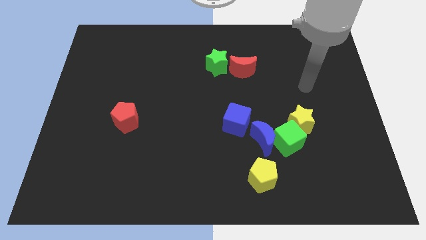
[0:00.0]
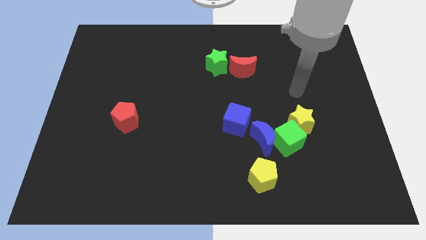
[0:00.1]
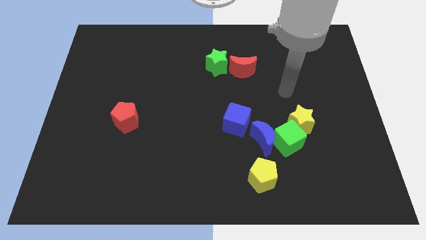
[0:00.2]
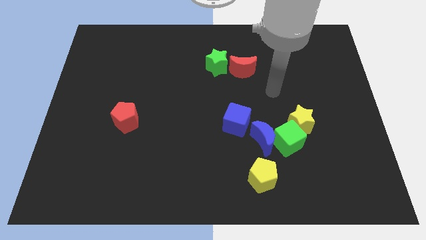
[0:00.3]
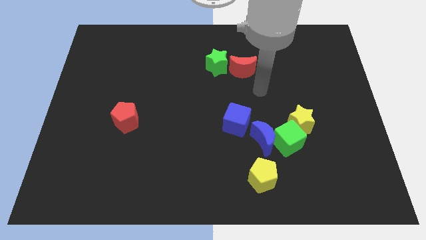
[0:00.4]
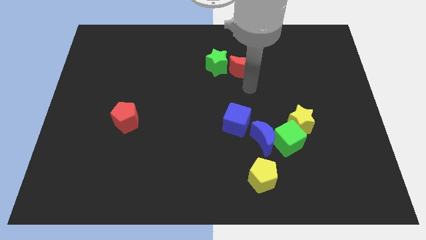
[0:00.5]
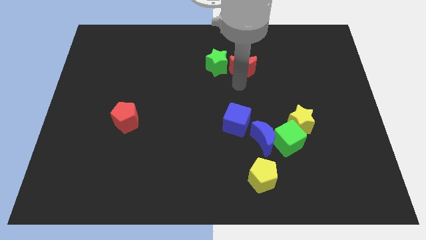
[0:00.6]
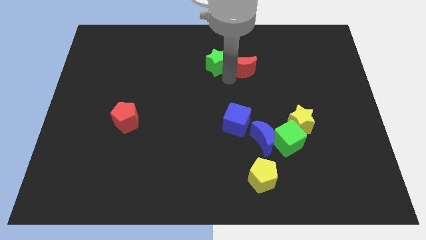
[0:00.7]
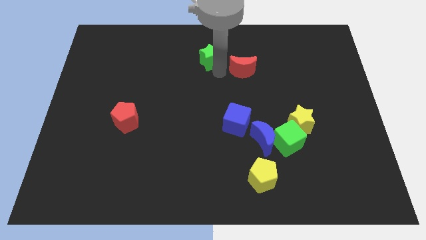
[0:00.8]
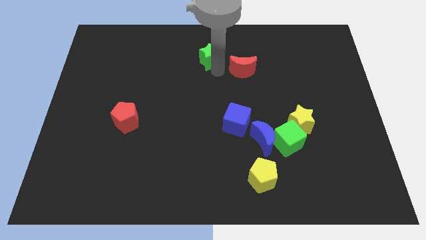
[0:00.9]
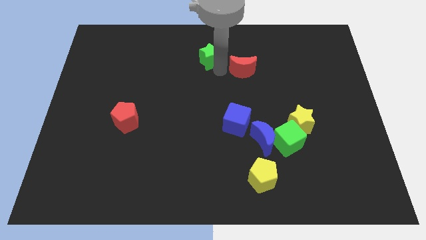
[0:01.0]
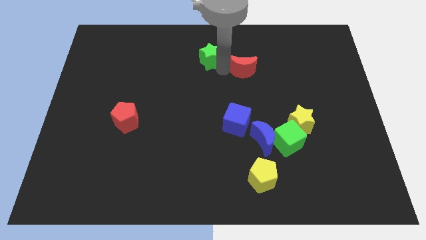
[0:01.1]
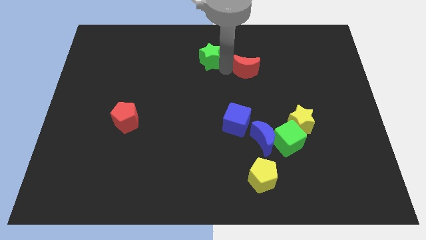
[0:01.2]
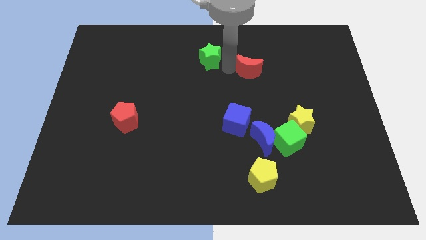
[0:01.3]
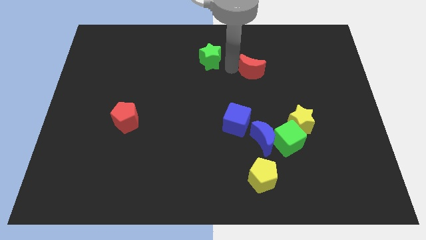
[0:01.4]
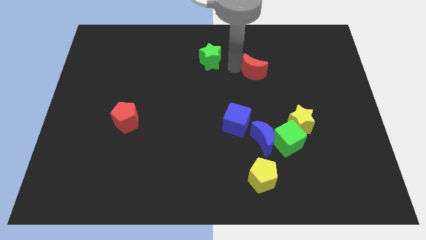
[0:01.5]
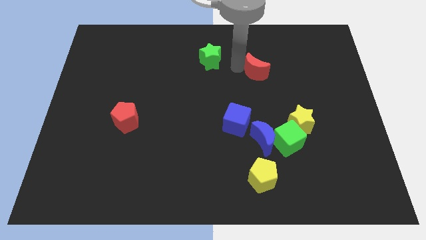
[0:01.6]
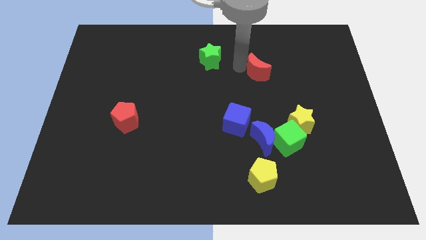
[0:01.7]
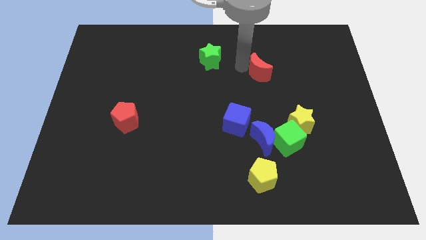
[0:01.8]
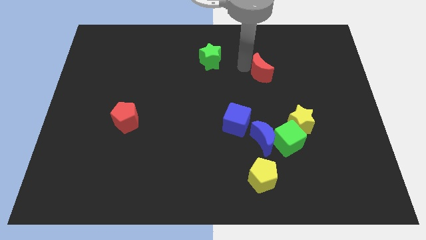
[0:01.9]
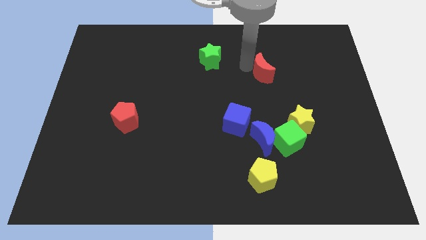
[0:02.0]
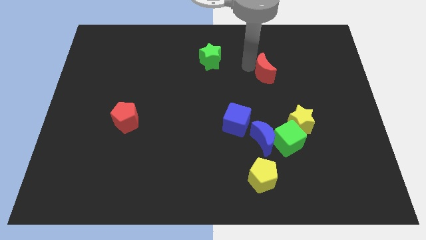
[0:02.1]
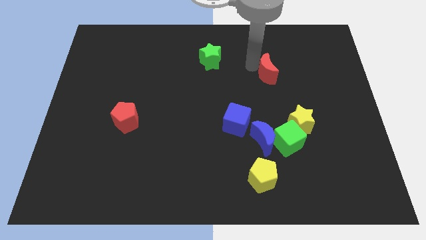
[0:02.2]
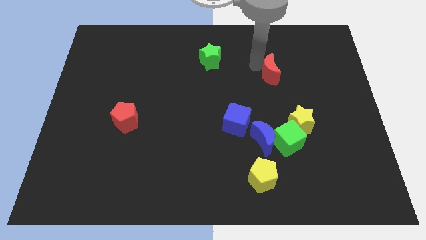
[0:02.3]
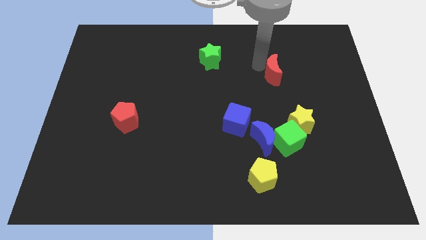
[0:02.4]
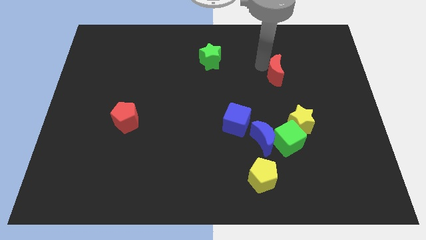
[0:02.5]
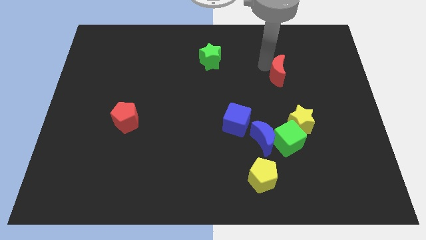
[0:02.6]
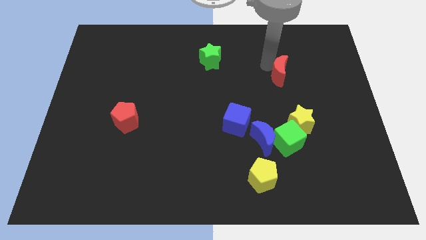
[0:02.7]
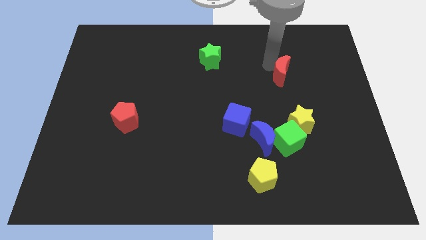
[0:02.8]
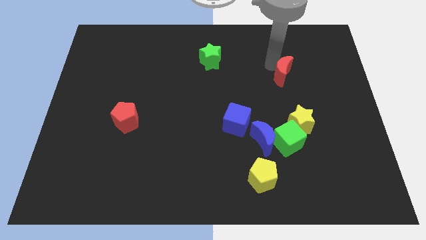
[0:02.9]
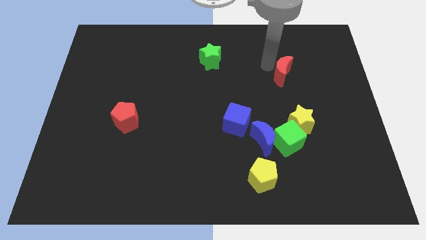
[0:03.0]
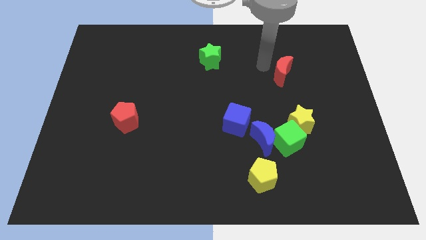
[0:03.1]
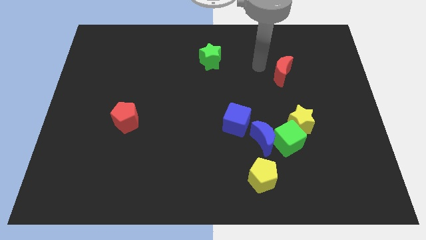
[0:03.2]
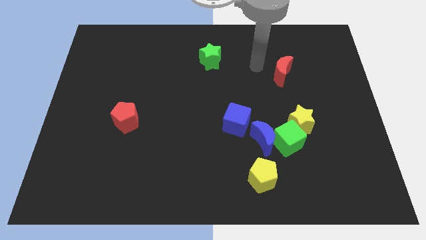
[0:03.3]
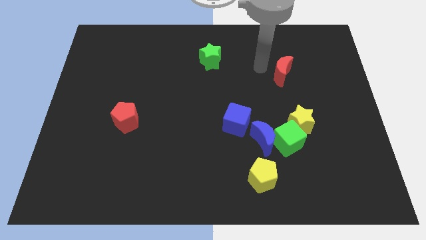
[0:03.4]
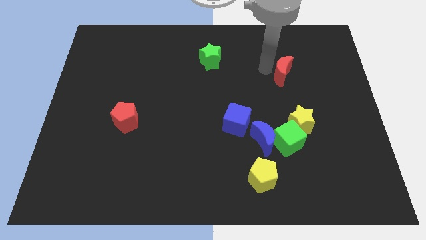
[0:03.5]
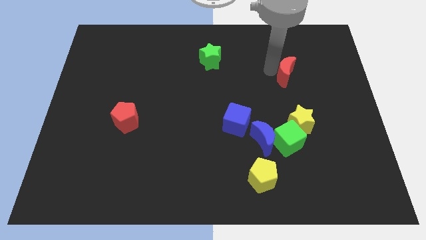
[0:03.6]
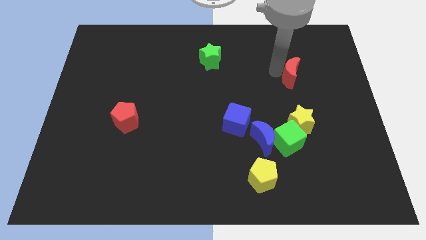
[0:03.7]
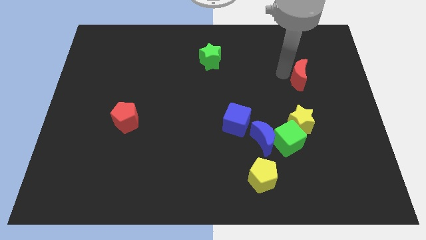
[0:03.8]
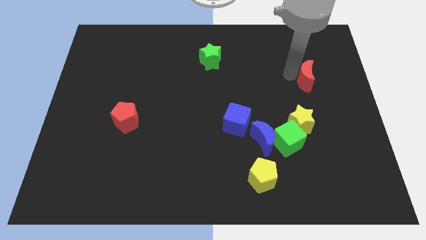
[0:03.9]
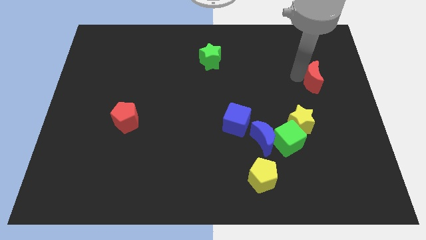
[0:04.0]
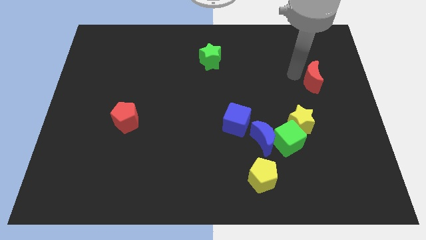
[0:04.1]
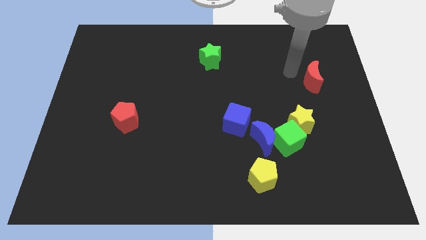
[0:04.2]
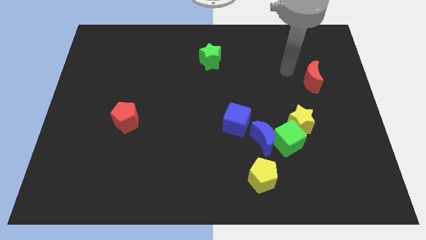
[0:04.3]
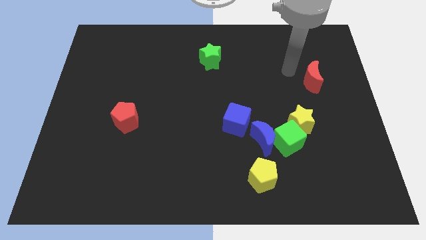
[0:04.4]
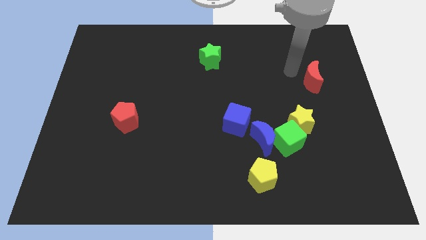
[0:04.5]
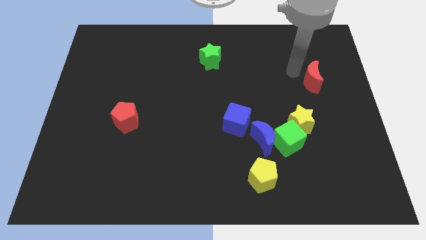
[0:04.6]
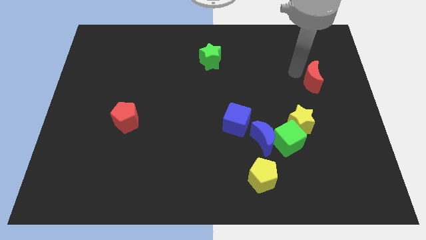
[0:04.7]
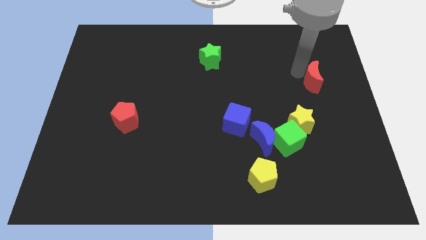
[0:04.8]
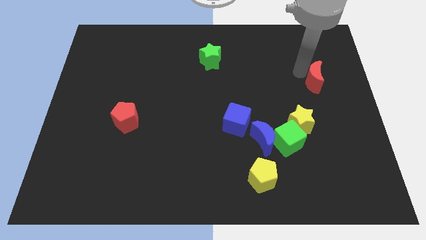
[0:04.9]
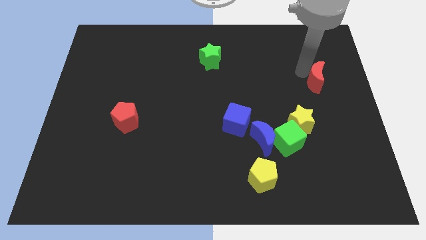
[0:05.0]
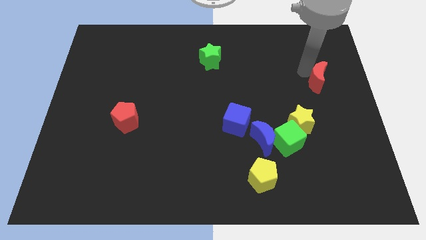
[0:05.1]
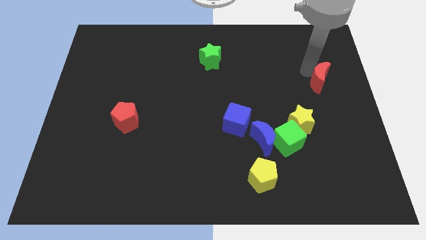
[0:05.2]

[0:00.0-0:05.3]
slide the red moon to the right side
